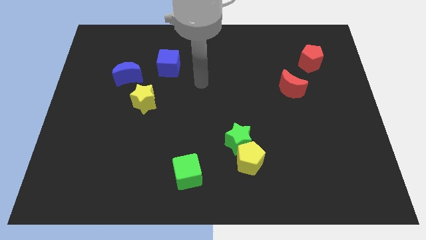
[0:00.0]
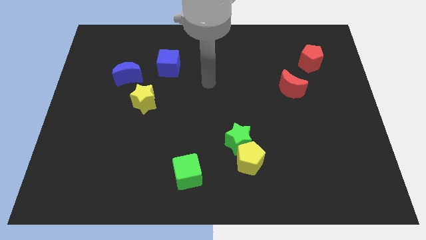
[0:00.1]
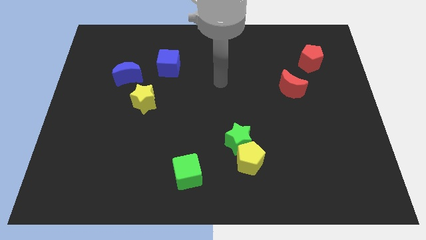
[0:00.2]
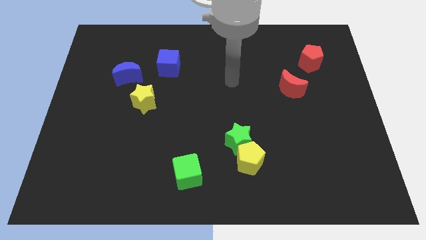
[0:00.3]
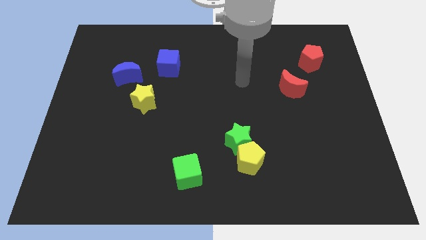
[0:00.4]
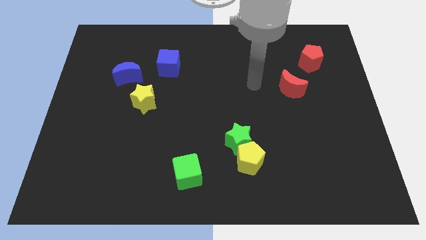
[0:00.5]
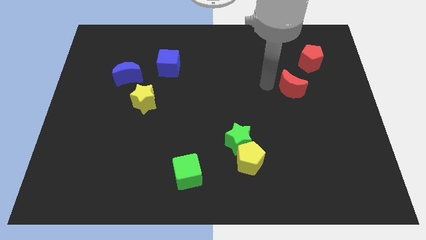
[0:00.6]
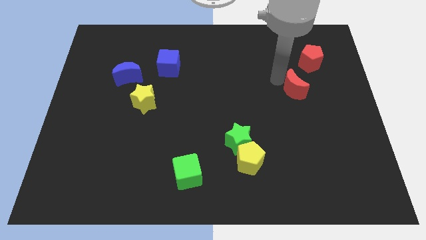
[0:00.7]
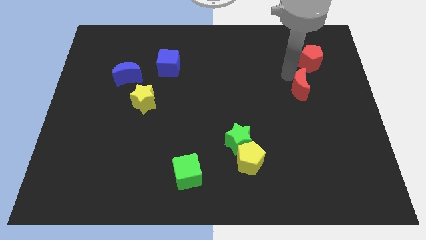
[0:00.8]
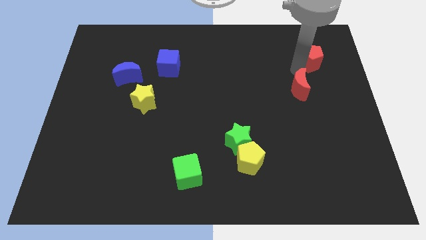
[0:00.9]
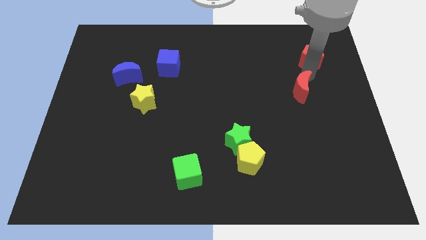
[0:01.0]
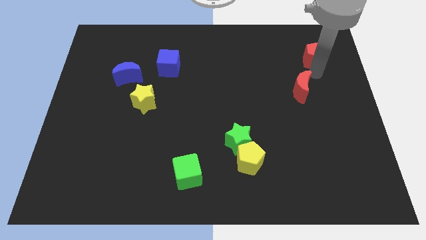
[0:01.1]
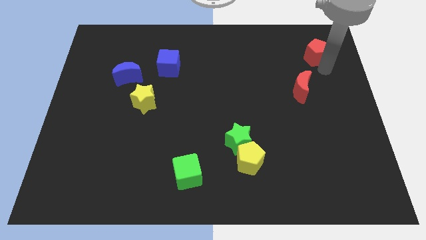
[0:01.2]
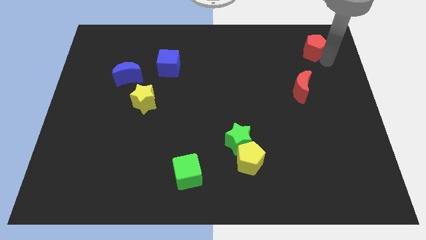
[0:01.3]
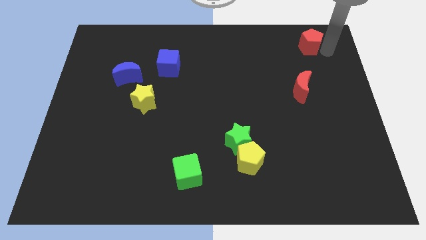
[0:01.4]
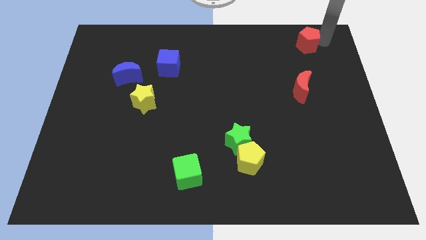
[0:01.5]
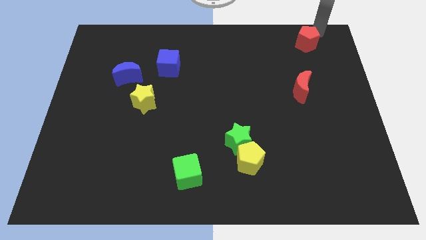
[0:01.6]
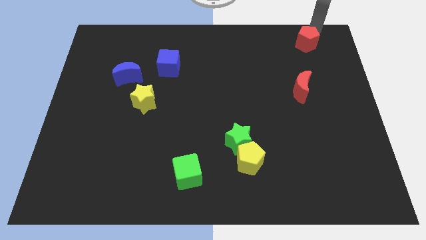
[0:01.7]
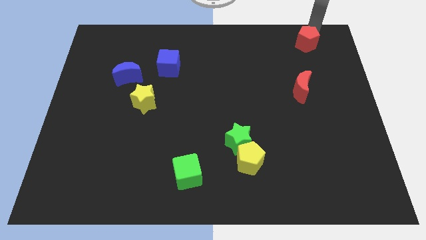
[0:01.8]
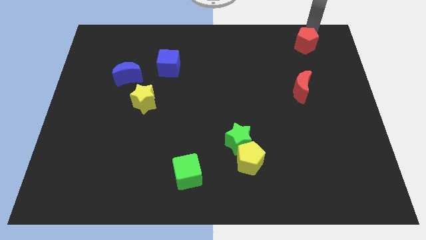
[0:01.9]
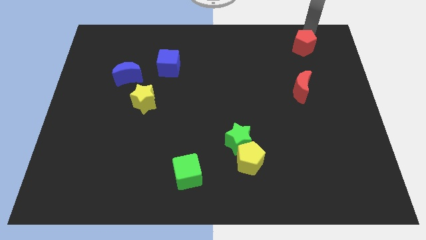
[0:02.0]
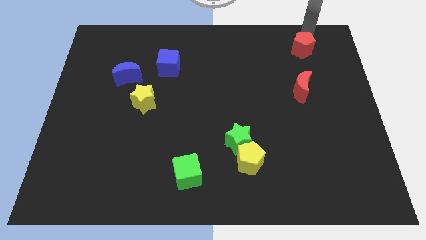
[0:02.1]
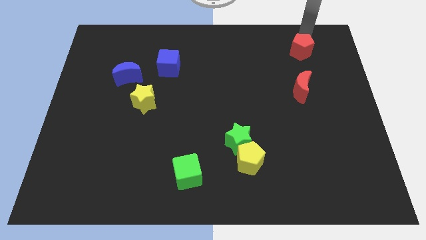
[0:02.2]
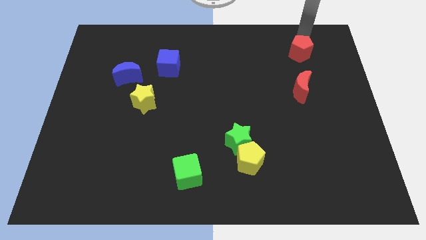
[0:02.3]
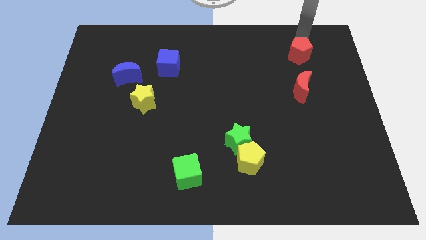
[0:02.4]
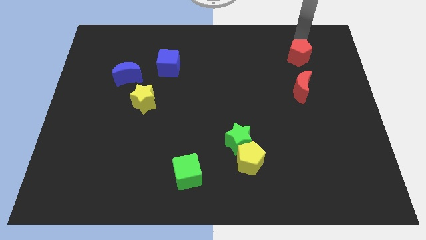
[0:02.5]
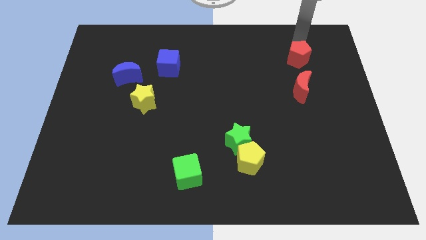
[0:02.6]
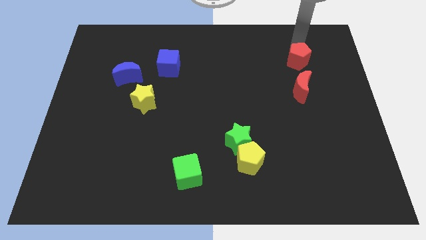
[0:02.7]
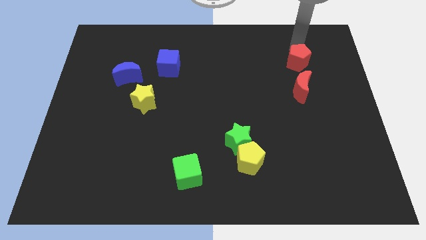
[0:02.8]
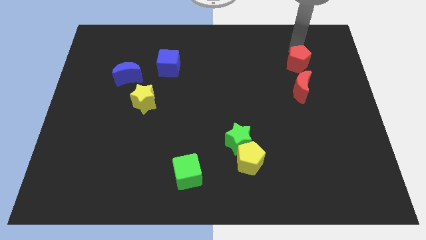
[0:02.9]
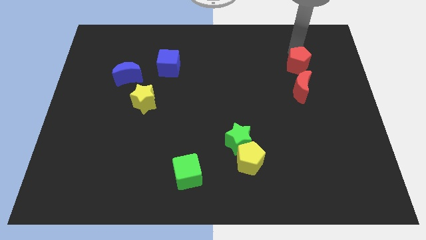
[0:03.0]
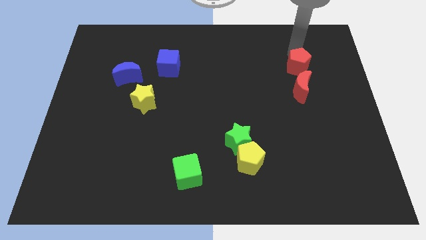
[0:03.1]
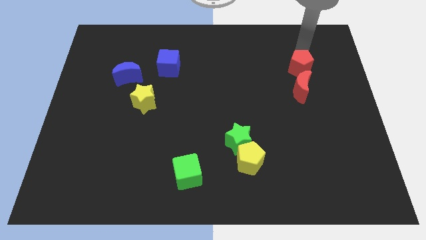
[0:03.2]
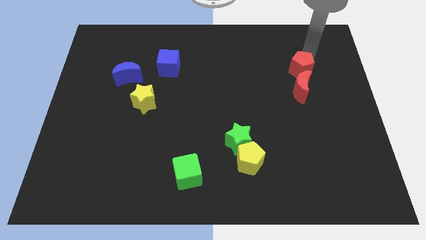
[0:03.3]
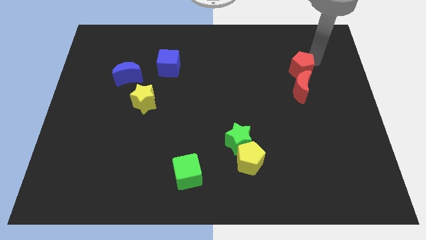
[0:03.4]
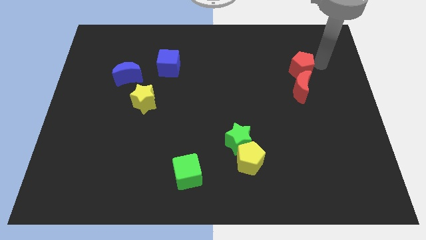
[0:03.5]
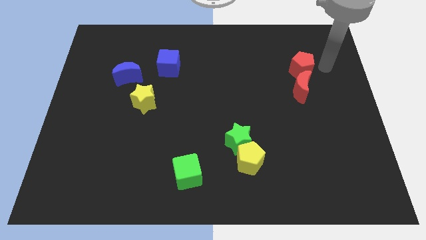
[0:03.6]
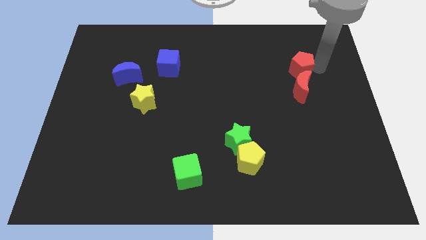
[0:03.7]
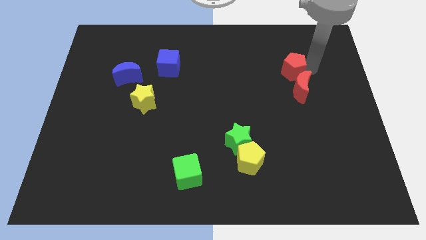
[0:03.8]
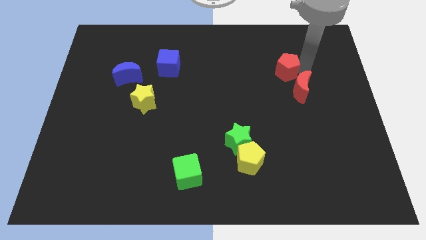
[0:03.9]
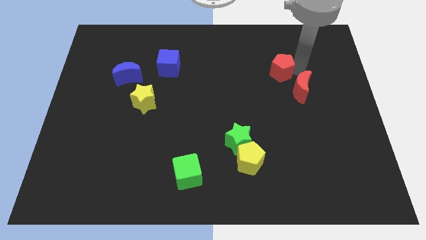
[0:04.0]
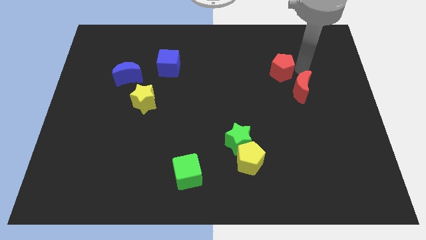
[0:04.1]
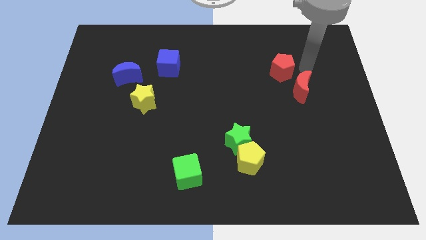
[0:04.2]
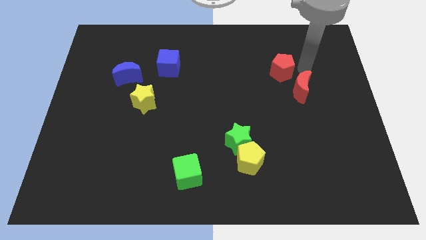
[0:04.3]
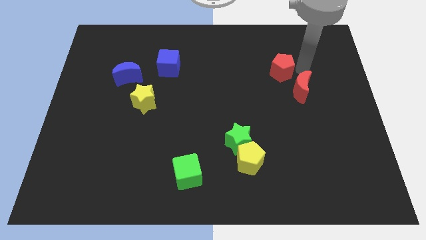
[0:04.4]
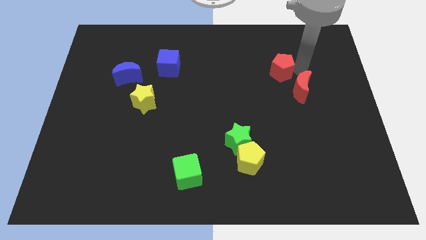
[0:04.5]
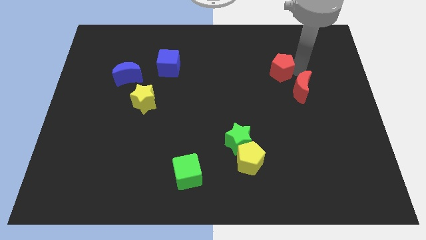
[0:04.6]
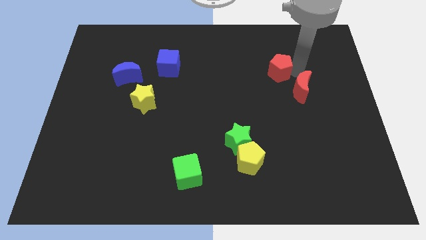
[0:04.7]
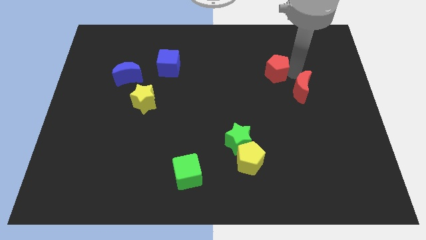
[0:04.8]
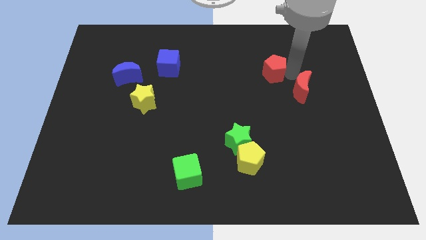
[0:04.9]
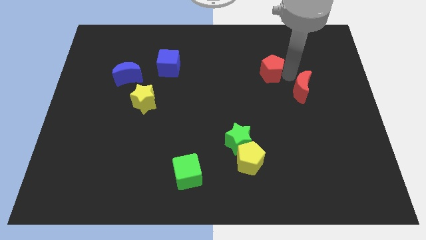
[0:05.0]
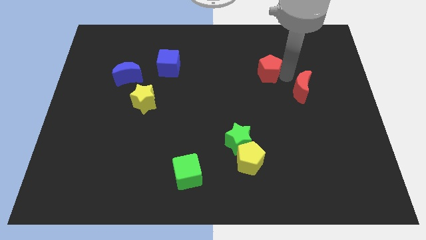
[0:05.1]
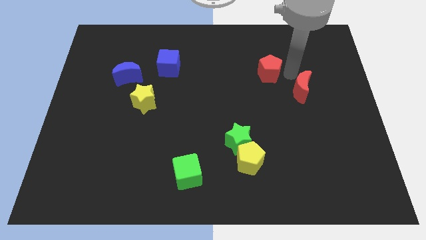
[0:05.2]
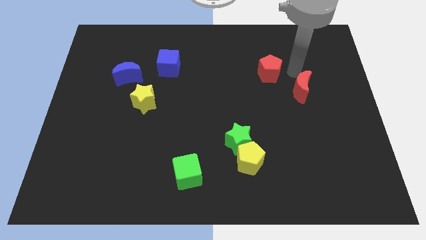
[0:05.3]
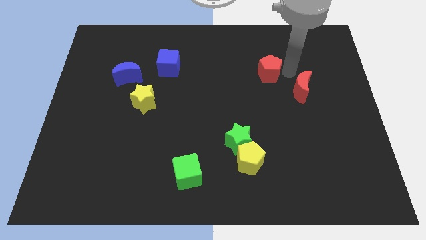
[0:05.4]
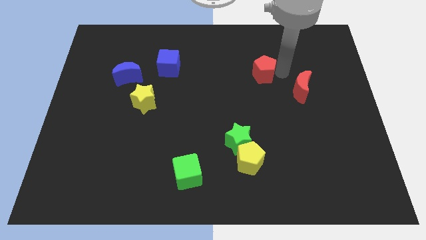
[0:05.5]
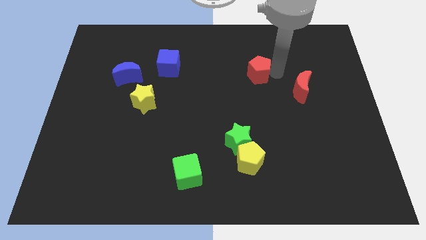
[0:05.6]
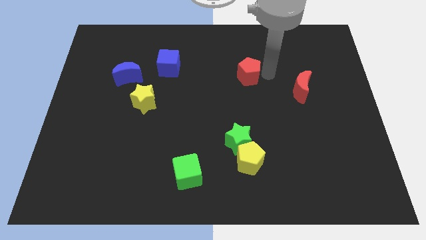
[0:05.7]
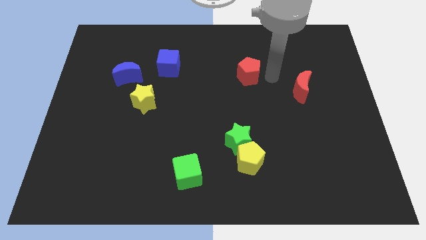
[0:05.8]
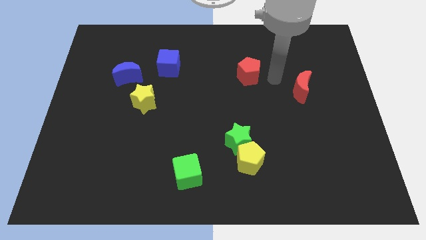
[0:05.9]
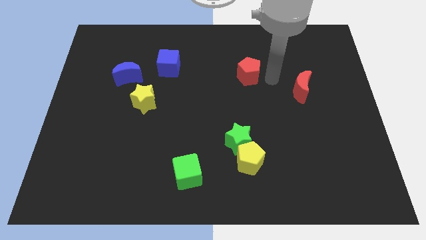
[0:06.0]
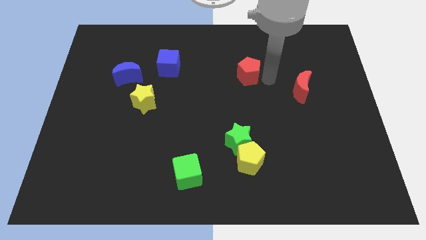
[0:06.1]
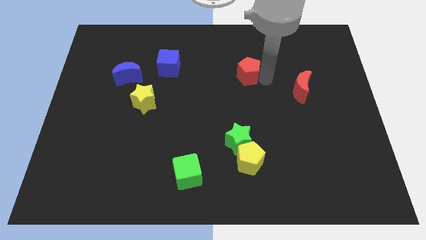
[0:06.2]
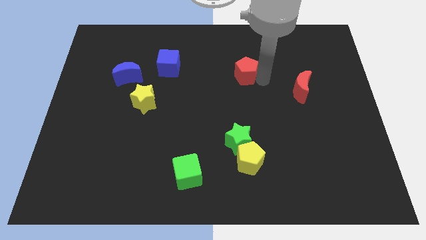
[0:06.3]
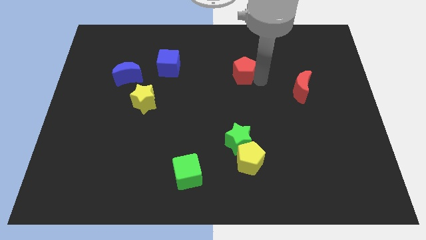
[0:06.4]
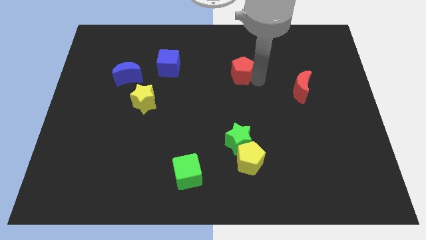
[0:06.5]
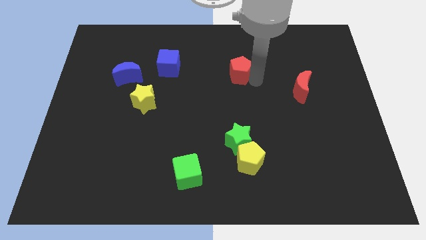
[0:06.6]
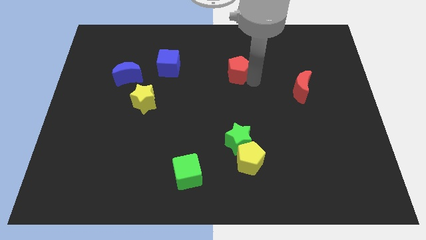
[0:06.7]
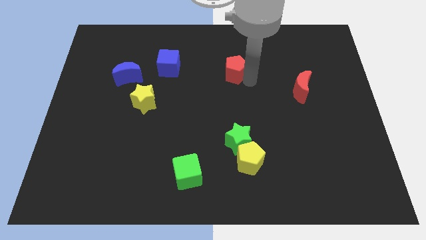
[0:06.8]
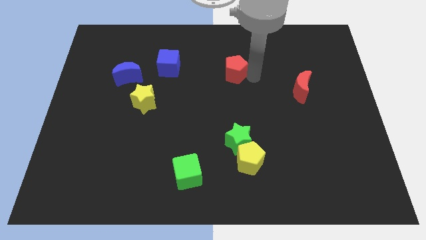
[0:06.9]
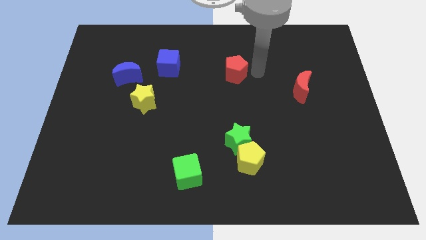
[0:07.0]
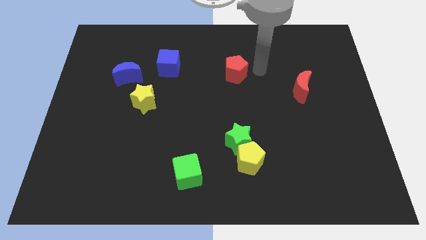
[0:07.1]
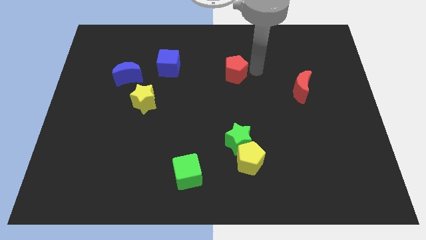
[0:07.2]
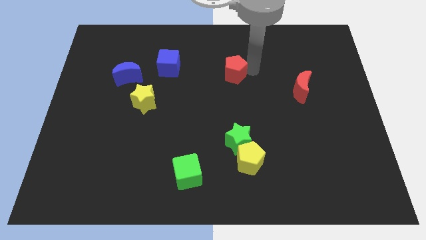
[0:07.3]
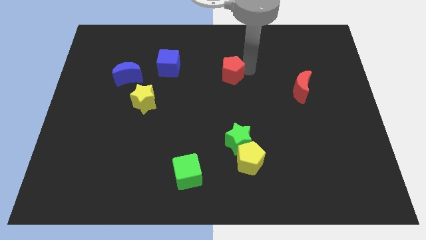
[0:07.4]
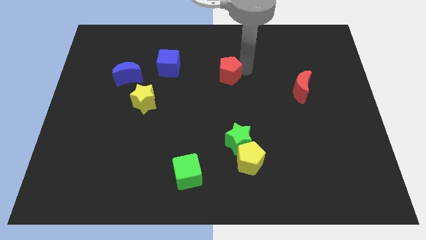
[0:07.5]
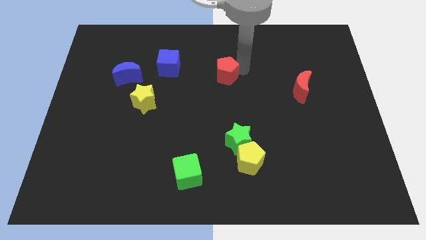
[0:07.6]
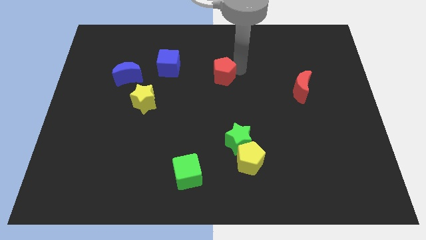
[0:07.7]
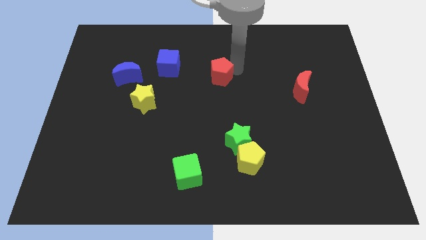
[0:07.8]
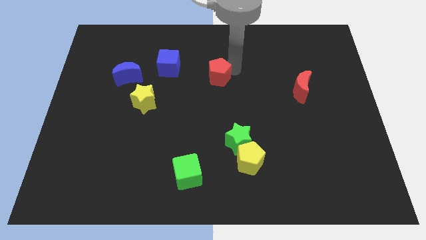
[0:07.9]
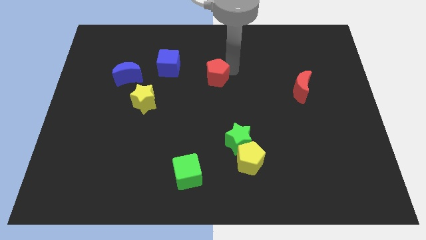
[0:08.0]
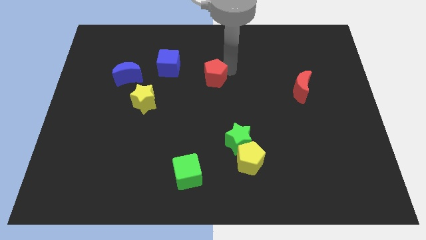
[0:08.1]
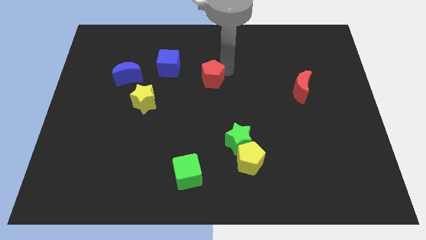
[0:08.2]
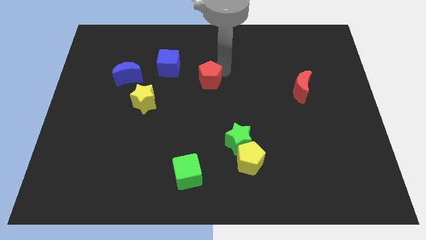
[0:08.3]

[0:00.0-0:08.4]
slide the red pentagon to the bottom right of the blue cube
